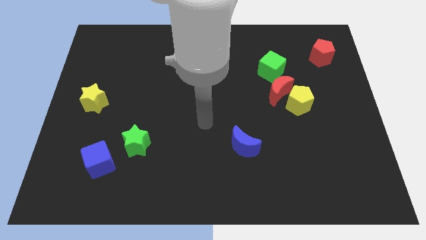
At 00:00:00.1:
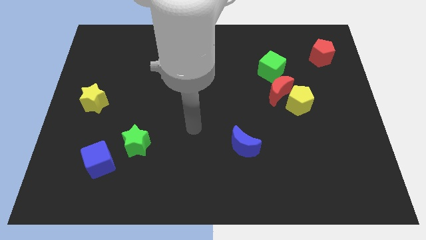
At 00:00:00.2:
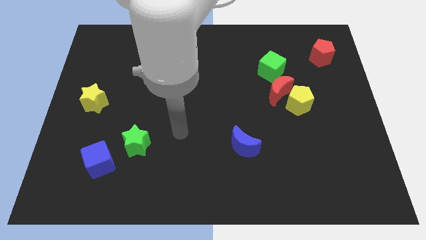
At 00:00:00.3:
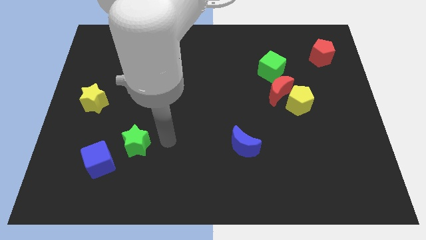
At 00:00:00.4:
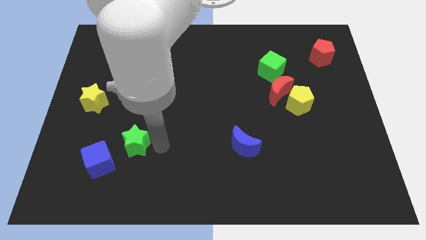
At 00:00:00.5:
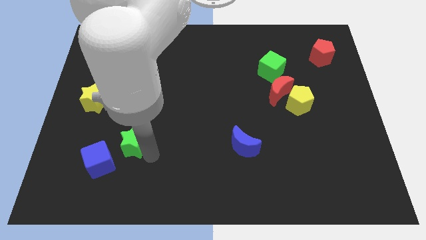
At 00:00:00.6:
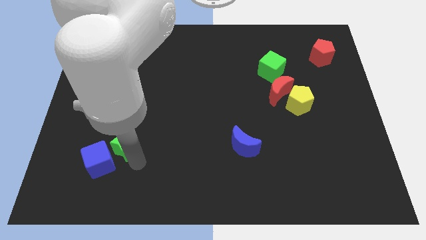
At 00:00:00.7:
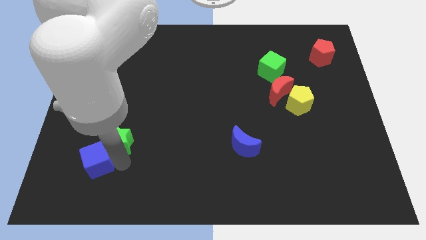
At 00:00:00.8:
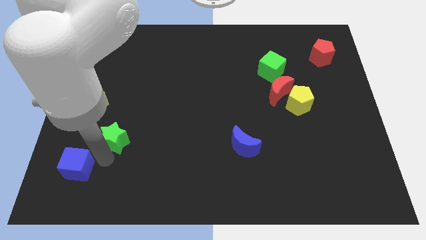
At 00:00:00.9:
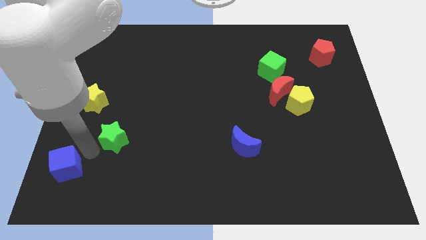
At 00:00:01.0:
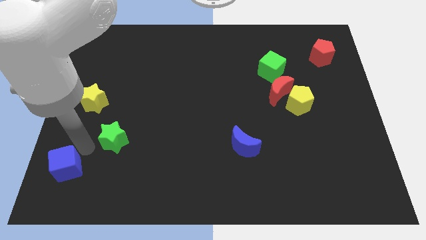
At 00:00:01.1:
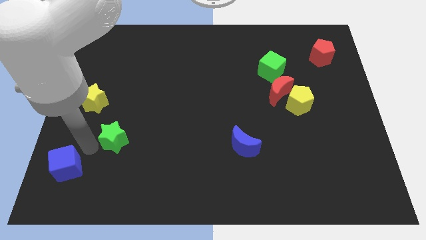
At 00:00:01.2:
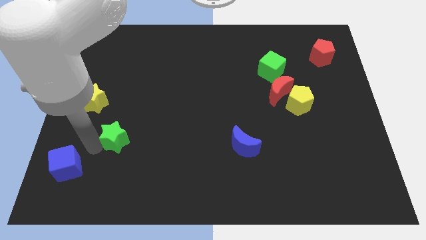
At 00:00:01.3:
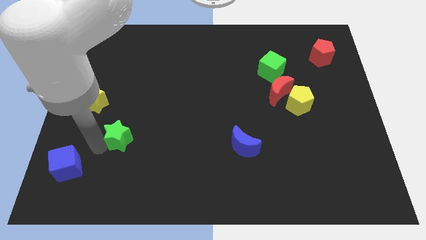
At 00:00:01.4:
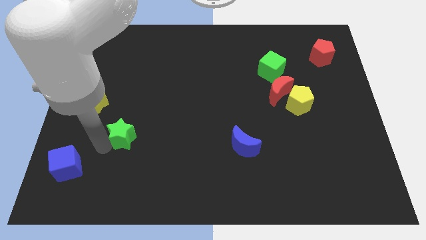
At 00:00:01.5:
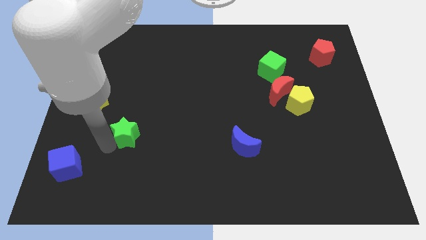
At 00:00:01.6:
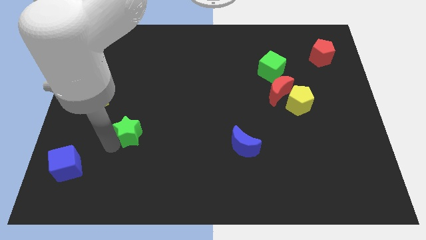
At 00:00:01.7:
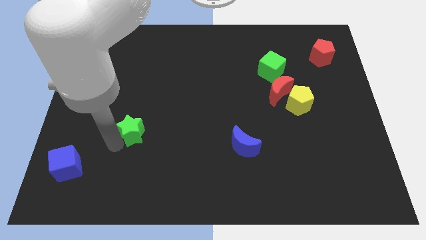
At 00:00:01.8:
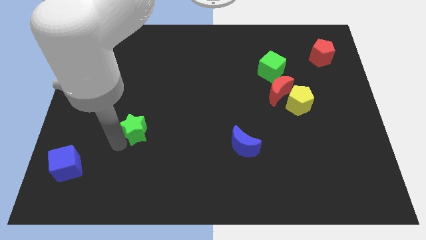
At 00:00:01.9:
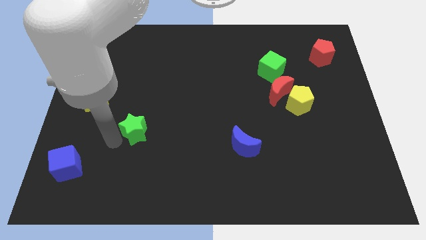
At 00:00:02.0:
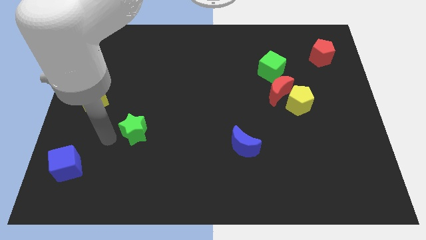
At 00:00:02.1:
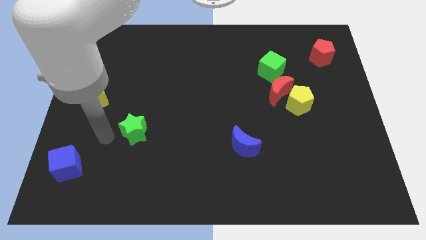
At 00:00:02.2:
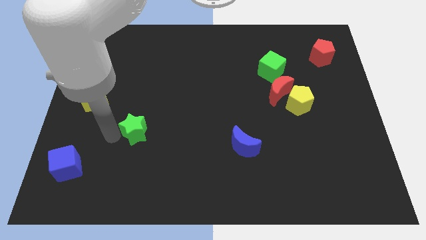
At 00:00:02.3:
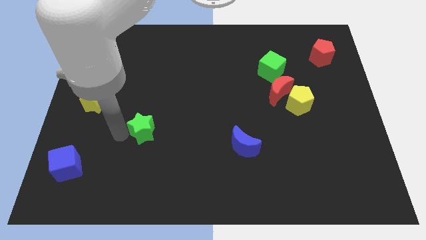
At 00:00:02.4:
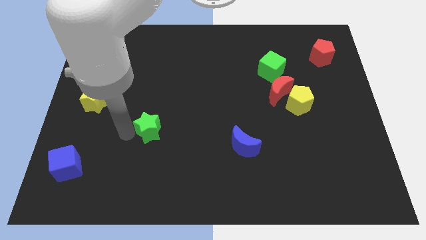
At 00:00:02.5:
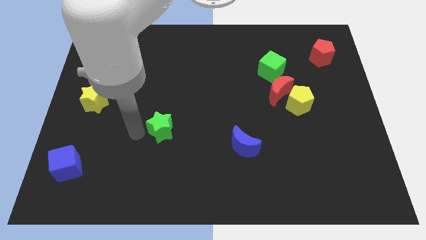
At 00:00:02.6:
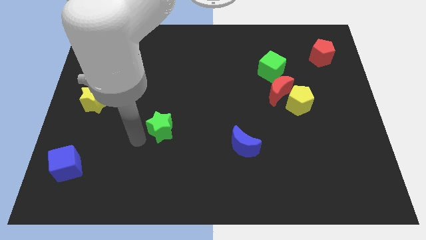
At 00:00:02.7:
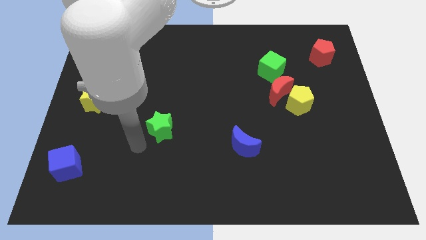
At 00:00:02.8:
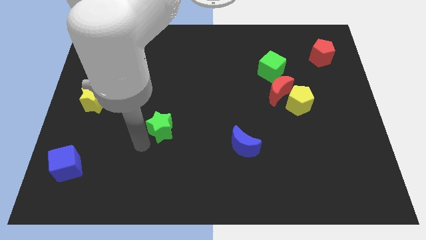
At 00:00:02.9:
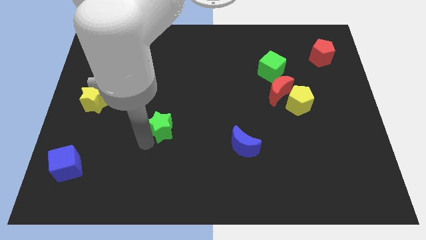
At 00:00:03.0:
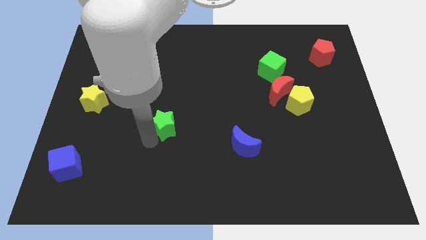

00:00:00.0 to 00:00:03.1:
slide the green star up and to the right a little bit

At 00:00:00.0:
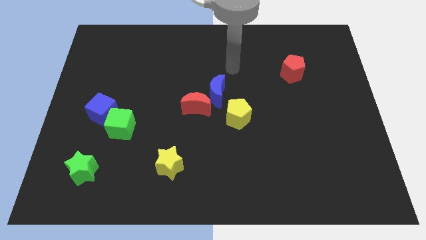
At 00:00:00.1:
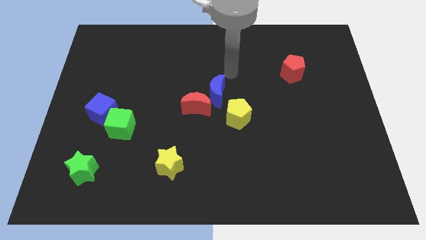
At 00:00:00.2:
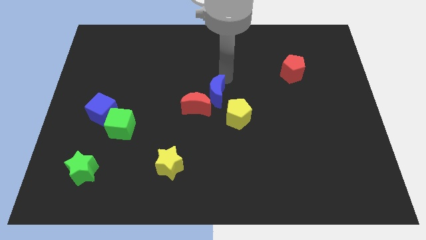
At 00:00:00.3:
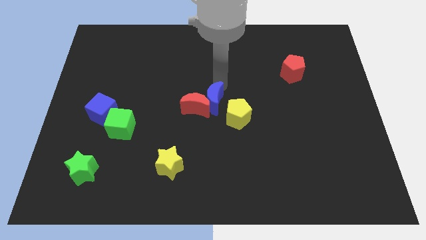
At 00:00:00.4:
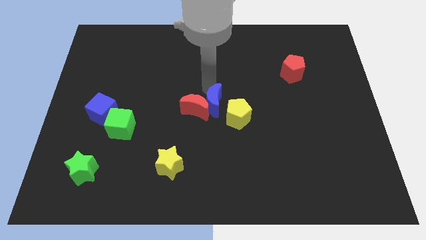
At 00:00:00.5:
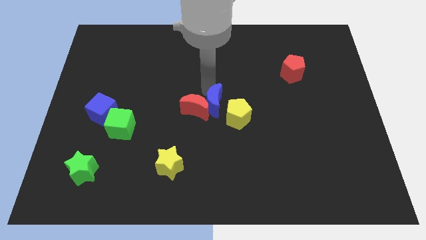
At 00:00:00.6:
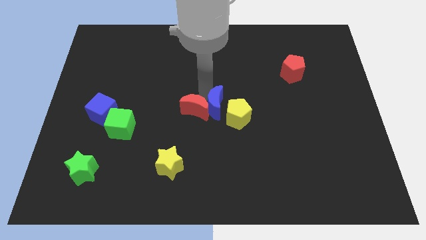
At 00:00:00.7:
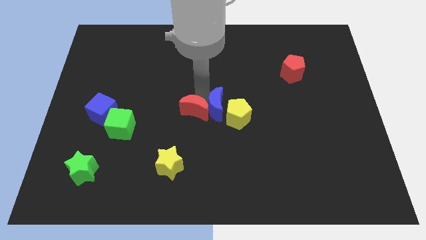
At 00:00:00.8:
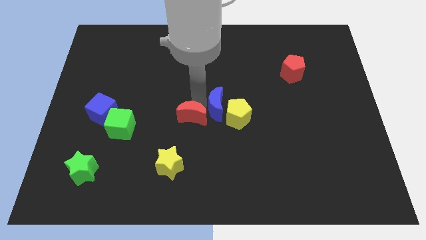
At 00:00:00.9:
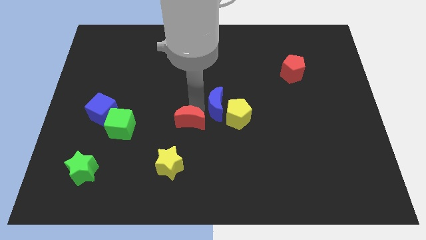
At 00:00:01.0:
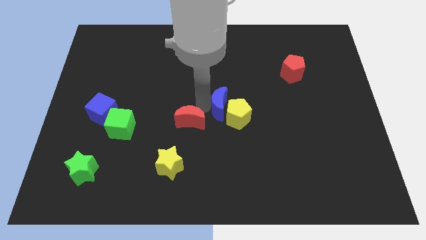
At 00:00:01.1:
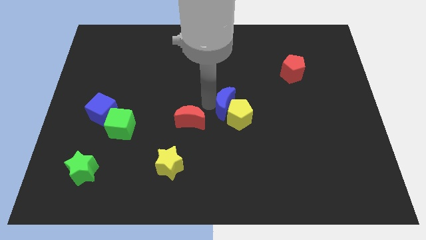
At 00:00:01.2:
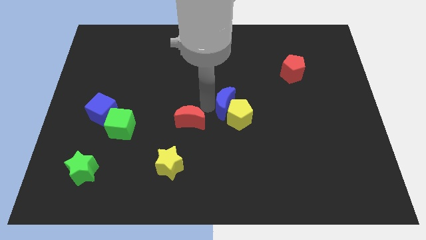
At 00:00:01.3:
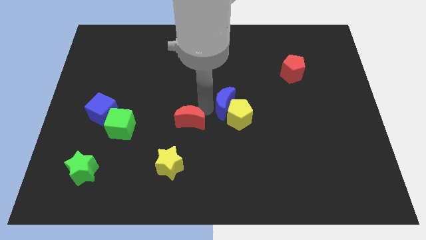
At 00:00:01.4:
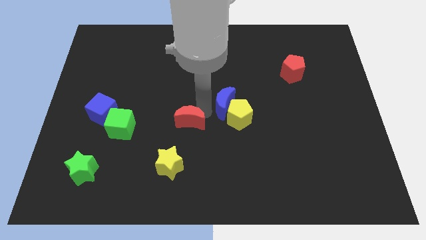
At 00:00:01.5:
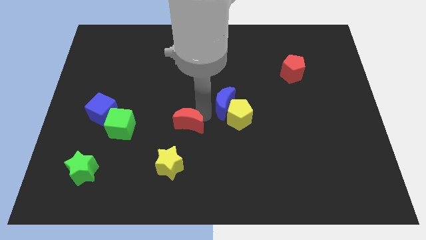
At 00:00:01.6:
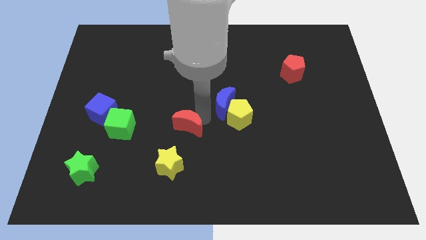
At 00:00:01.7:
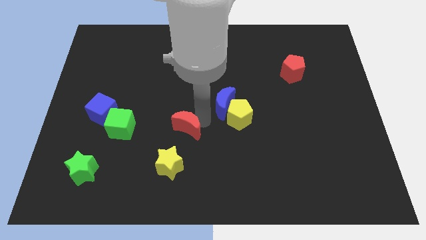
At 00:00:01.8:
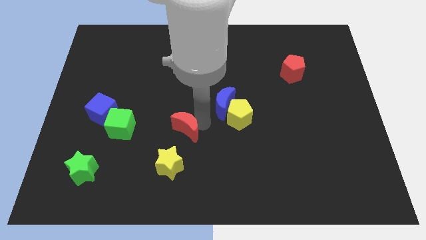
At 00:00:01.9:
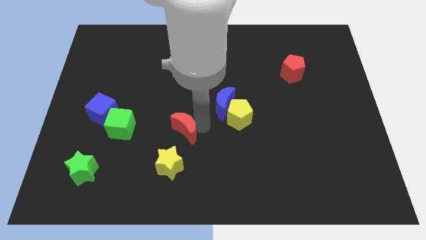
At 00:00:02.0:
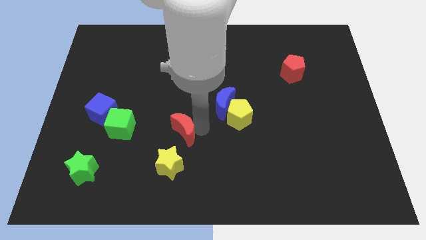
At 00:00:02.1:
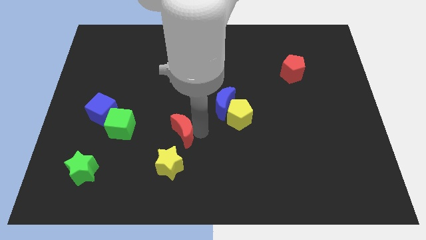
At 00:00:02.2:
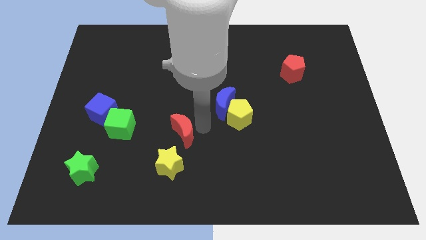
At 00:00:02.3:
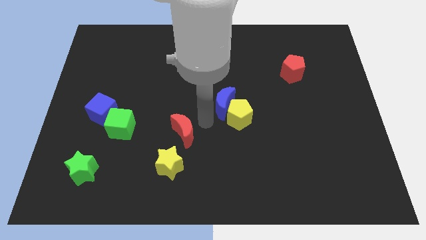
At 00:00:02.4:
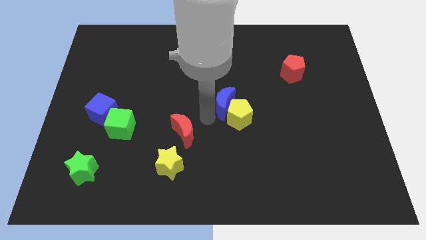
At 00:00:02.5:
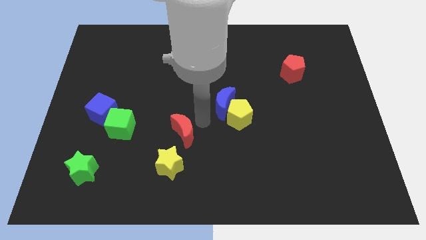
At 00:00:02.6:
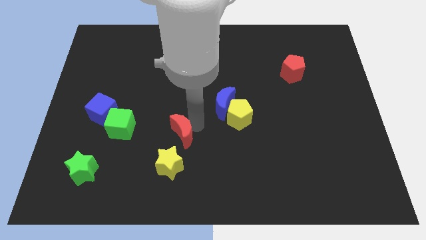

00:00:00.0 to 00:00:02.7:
slightly move the red moon diagonally downwards and to the left

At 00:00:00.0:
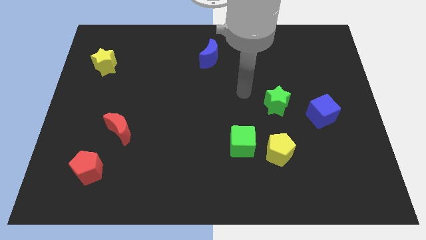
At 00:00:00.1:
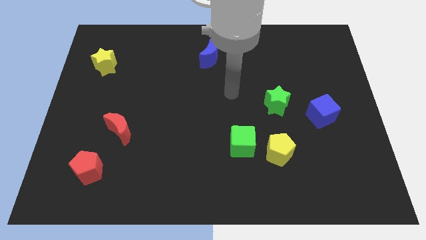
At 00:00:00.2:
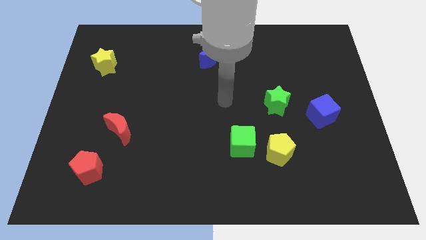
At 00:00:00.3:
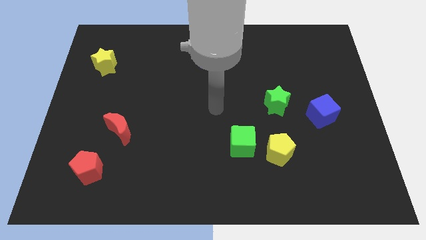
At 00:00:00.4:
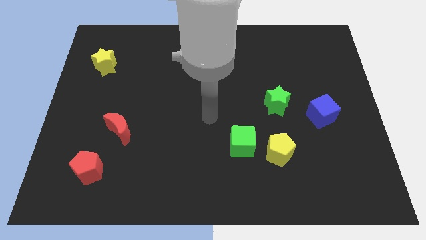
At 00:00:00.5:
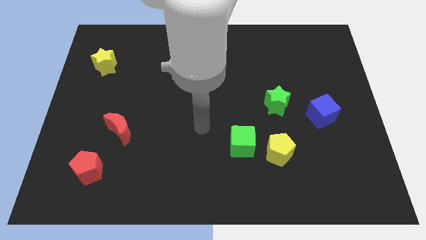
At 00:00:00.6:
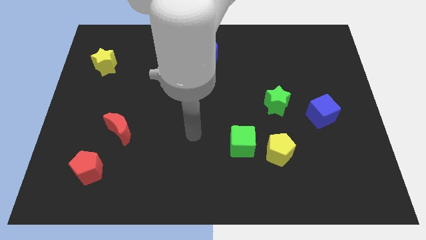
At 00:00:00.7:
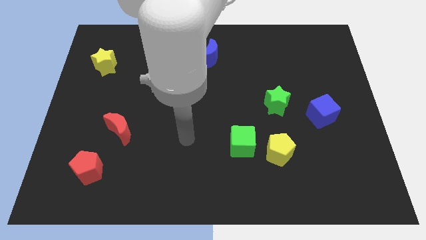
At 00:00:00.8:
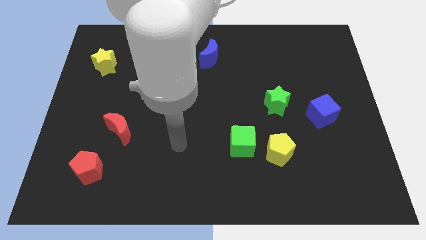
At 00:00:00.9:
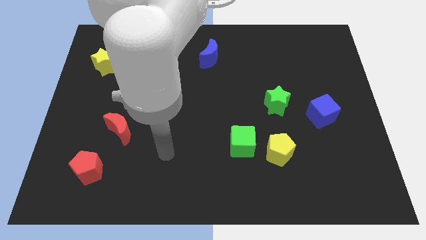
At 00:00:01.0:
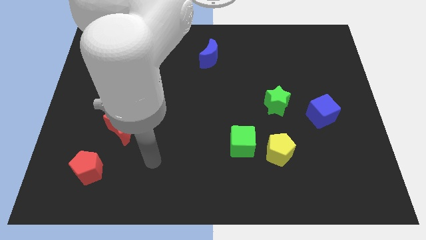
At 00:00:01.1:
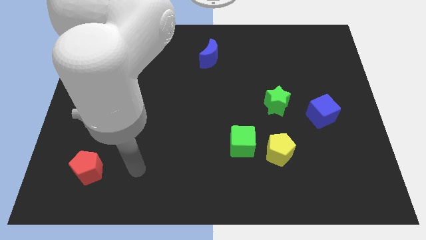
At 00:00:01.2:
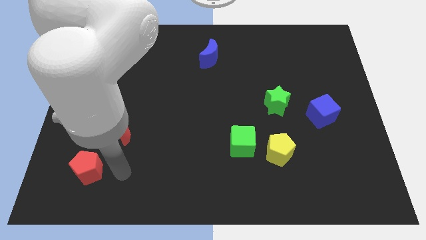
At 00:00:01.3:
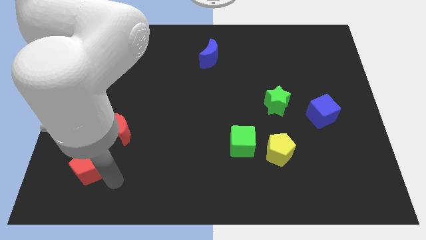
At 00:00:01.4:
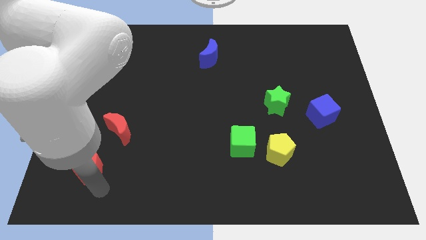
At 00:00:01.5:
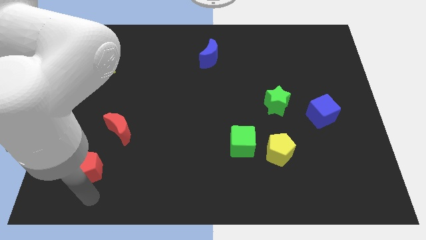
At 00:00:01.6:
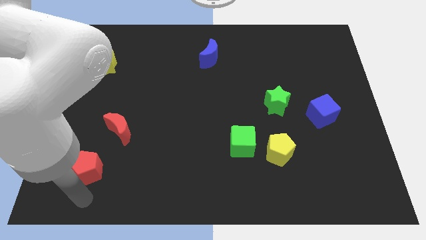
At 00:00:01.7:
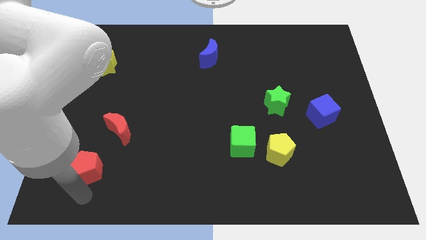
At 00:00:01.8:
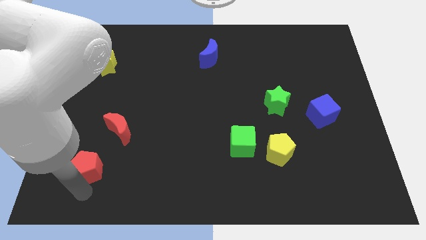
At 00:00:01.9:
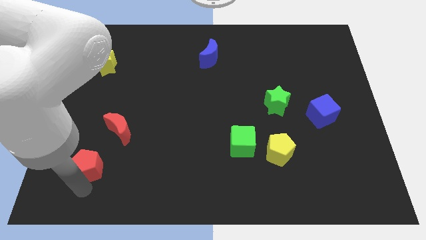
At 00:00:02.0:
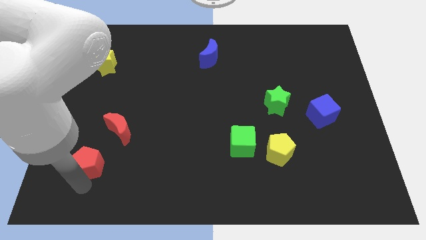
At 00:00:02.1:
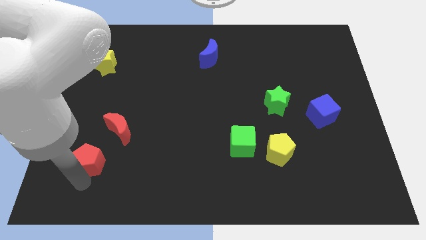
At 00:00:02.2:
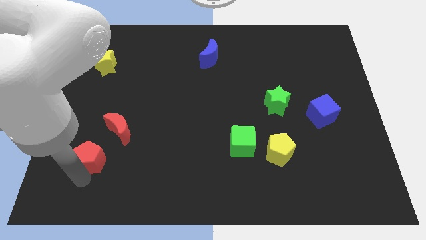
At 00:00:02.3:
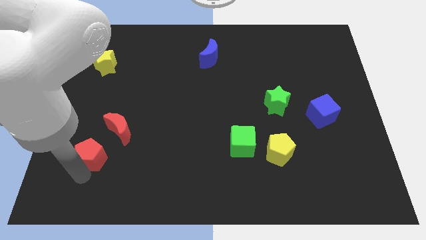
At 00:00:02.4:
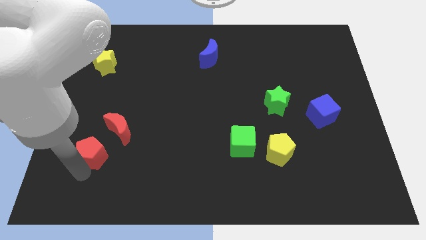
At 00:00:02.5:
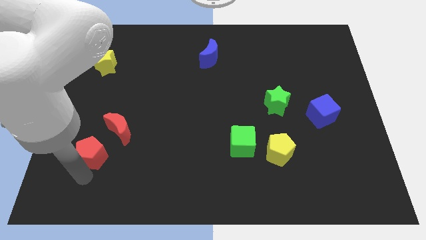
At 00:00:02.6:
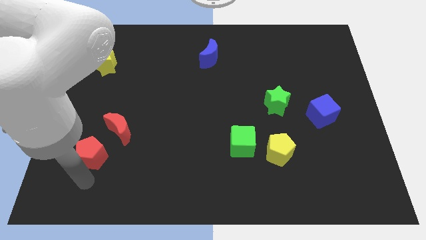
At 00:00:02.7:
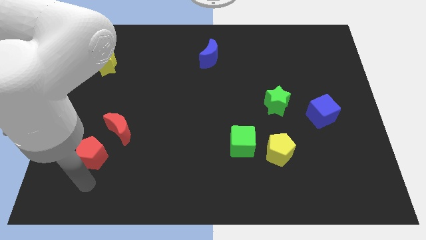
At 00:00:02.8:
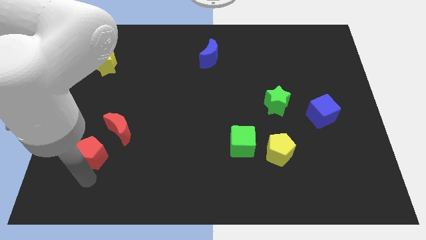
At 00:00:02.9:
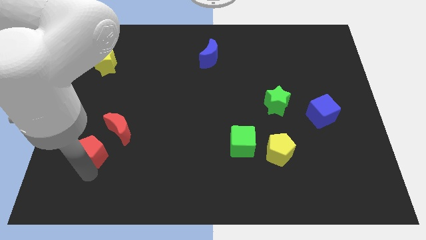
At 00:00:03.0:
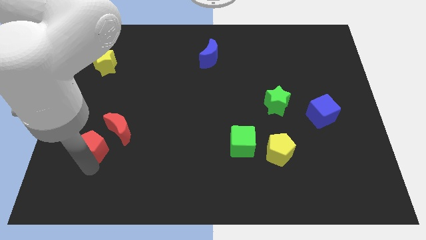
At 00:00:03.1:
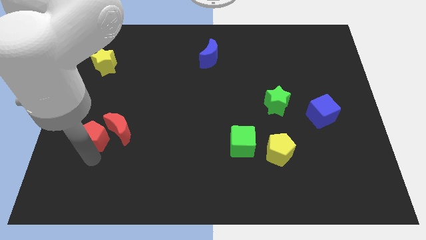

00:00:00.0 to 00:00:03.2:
slide the red pentagon somewhat up
